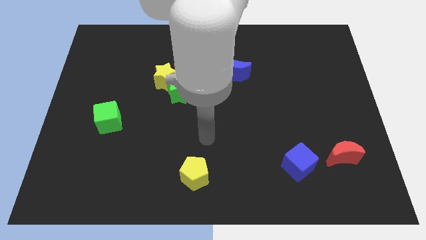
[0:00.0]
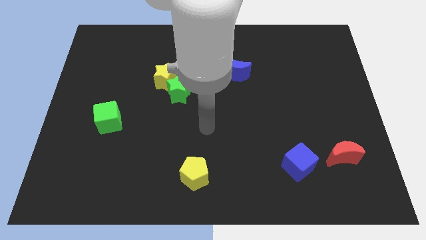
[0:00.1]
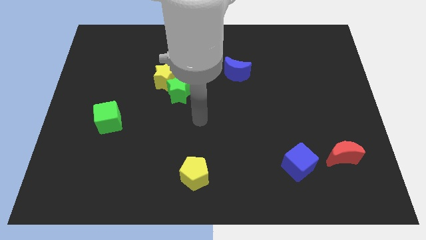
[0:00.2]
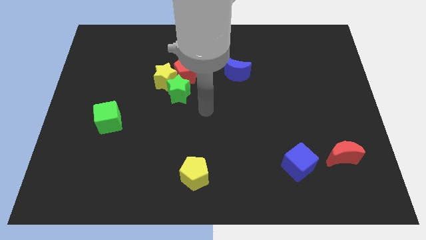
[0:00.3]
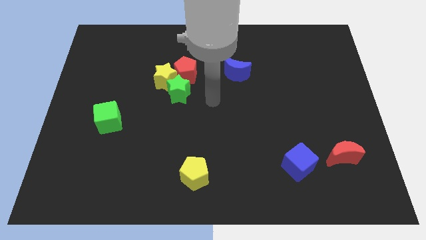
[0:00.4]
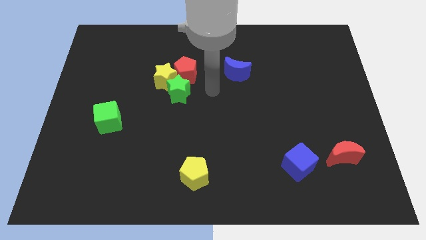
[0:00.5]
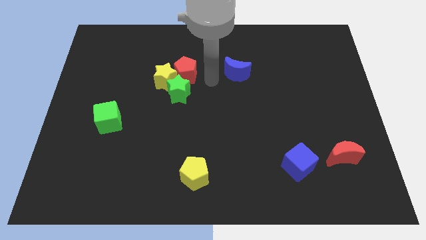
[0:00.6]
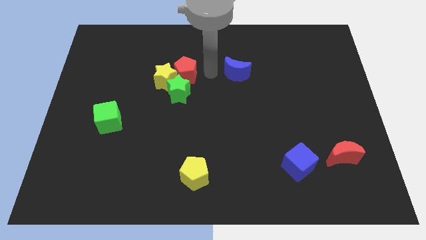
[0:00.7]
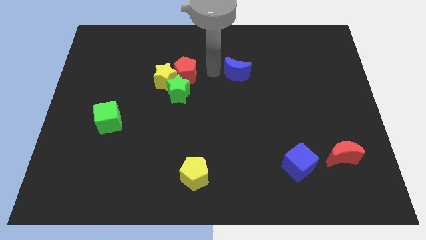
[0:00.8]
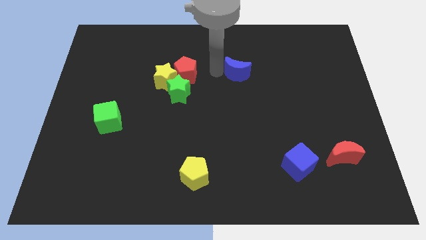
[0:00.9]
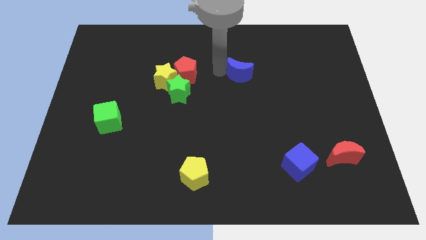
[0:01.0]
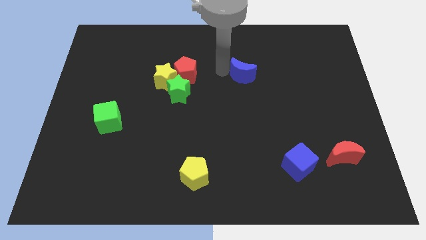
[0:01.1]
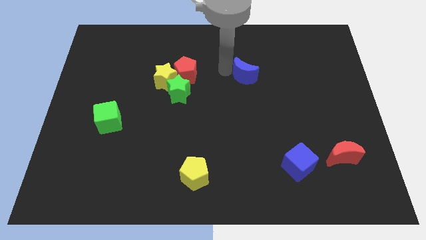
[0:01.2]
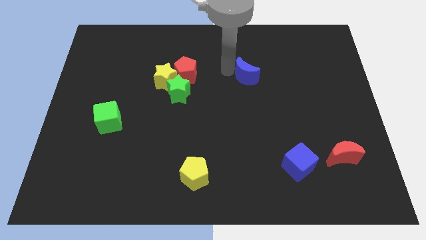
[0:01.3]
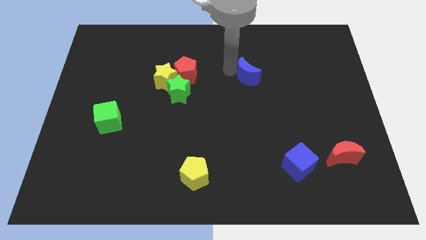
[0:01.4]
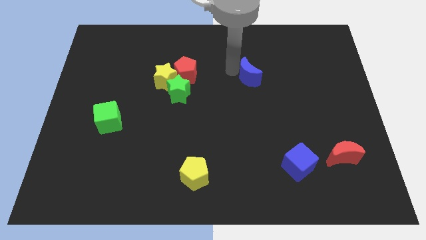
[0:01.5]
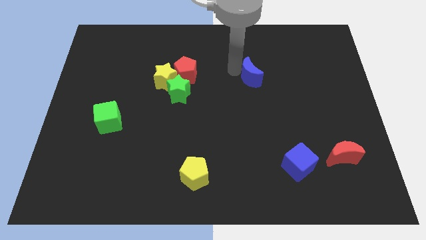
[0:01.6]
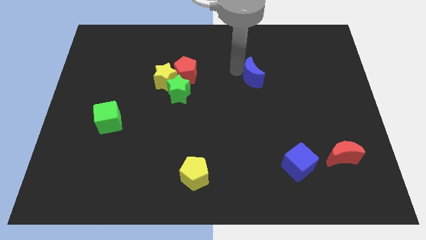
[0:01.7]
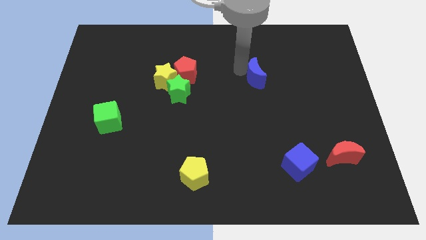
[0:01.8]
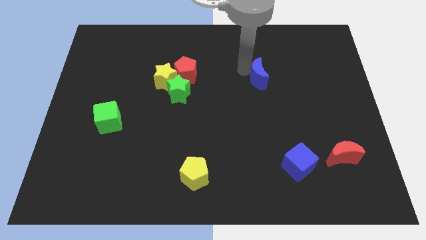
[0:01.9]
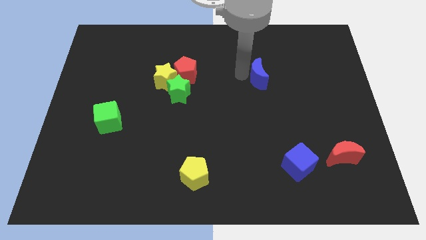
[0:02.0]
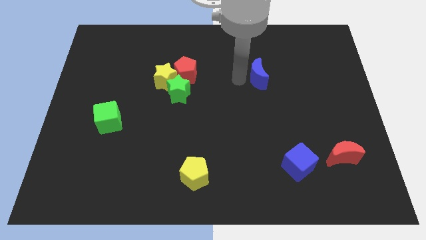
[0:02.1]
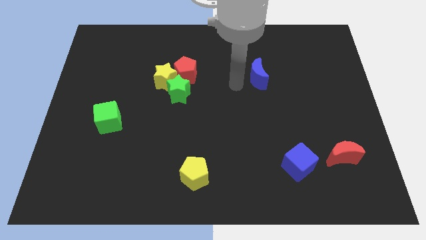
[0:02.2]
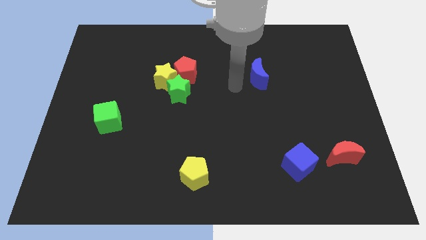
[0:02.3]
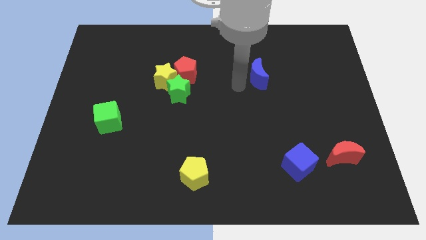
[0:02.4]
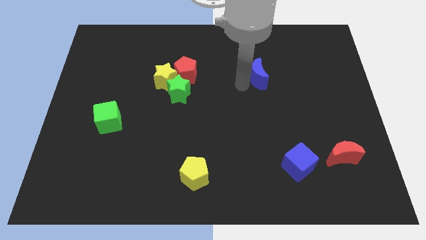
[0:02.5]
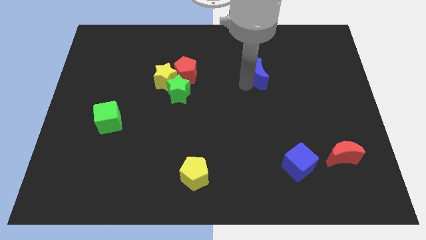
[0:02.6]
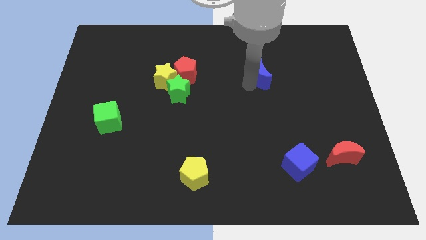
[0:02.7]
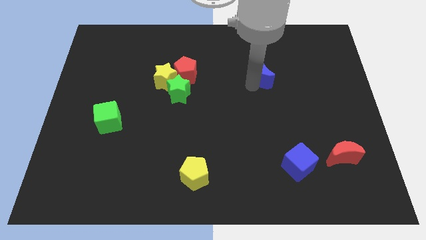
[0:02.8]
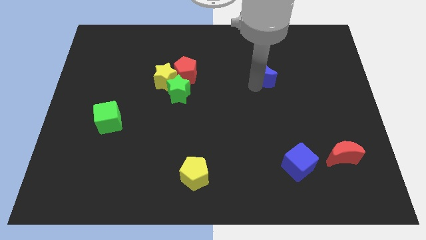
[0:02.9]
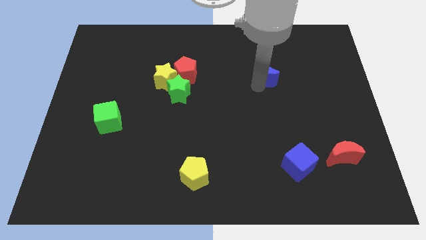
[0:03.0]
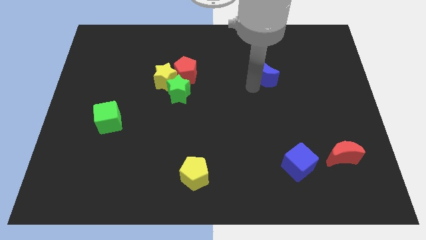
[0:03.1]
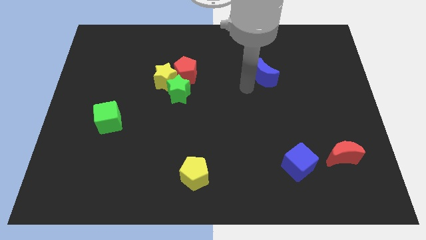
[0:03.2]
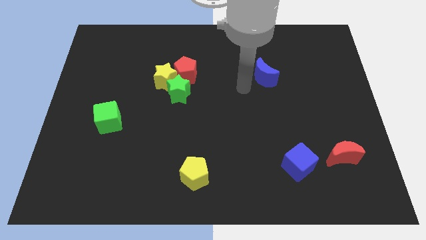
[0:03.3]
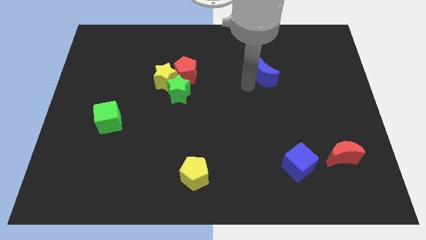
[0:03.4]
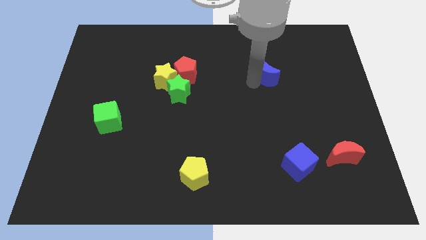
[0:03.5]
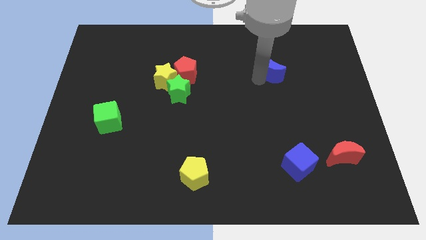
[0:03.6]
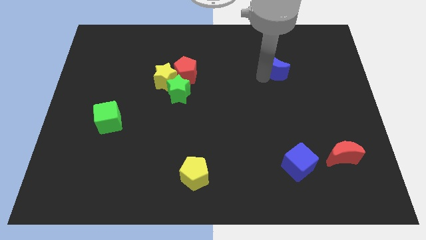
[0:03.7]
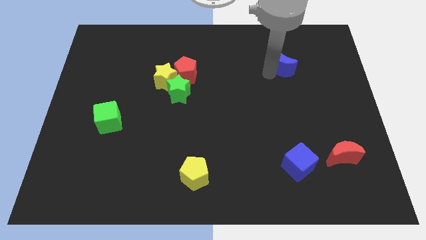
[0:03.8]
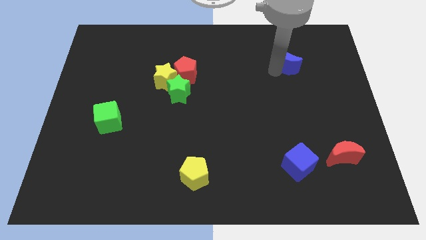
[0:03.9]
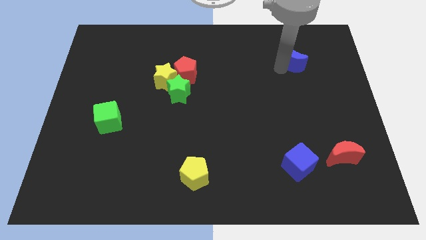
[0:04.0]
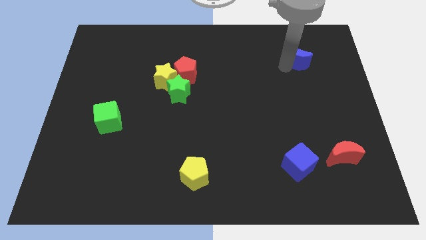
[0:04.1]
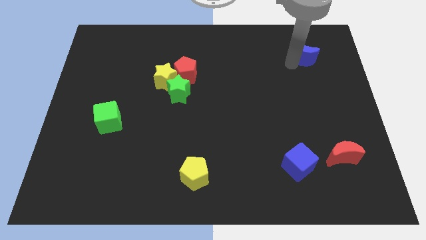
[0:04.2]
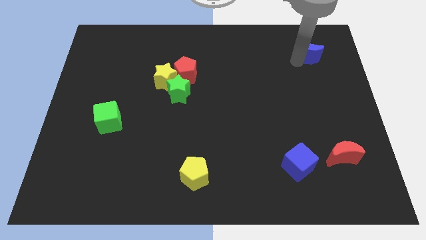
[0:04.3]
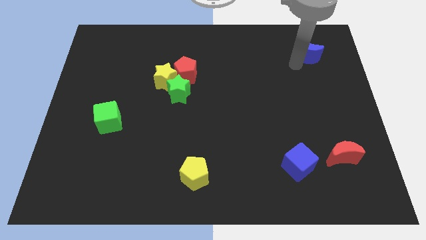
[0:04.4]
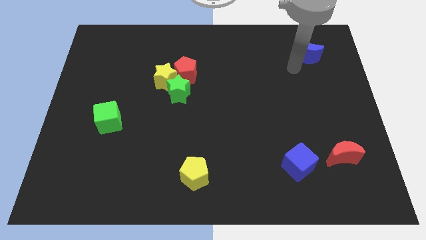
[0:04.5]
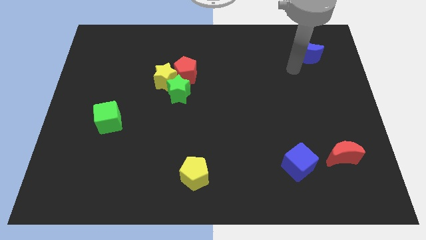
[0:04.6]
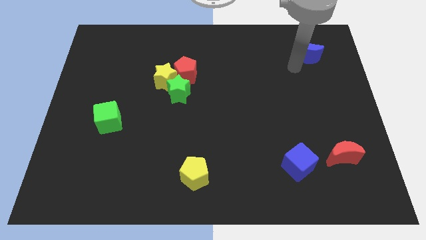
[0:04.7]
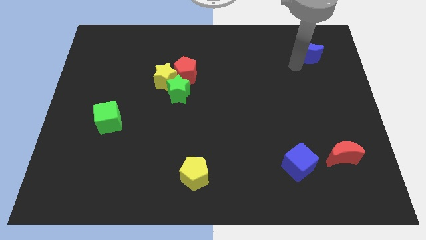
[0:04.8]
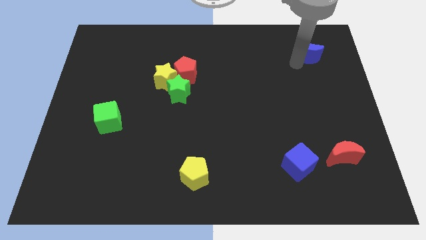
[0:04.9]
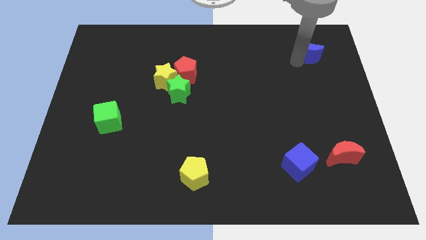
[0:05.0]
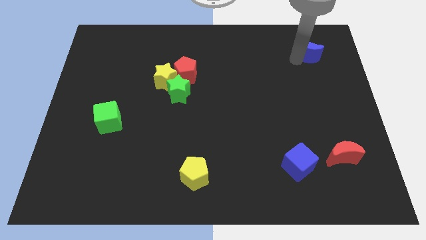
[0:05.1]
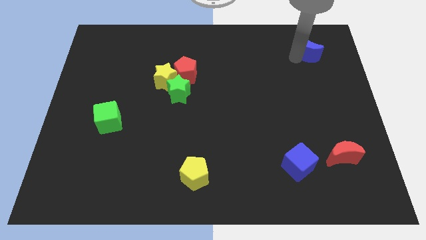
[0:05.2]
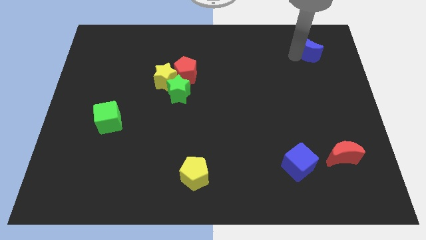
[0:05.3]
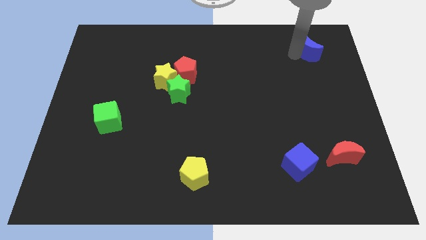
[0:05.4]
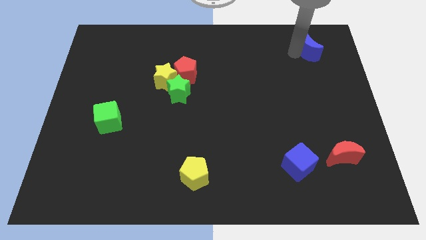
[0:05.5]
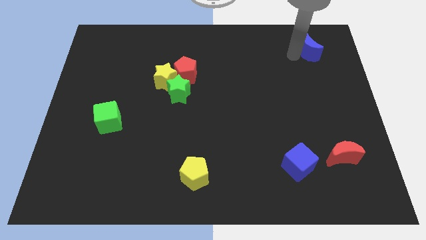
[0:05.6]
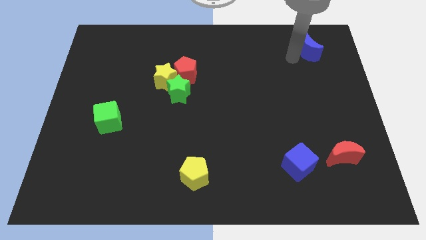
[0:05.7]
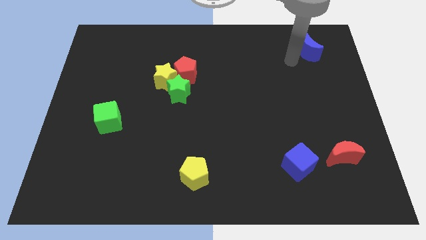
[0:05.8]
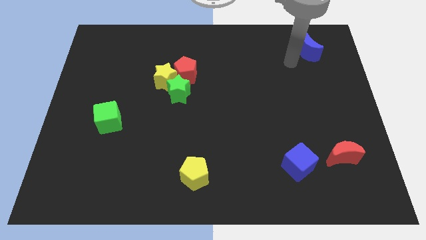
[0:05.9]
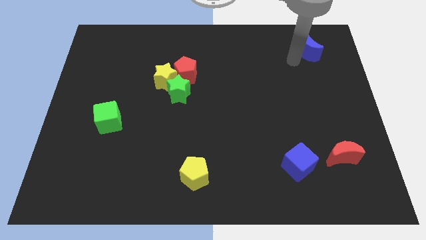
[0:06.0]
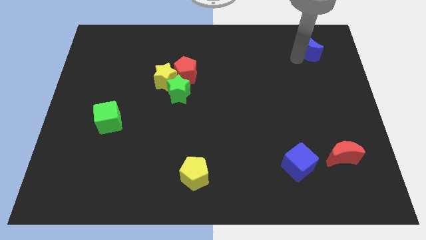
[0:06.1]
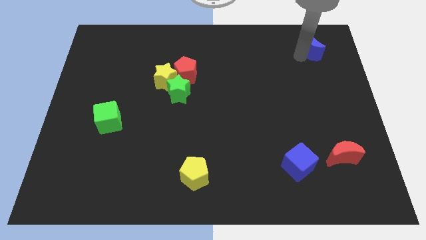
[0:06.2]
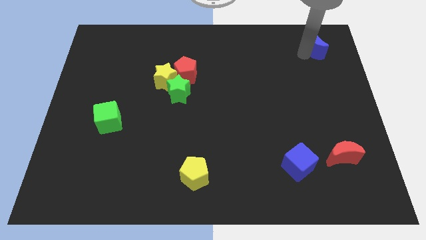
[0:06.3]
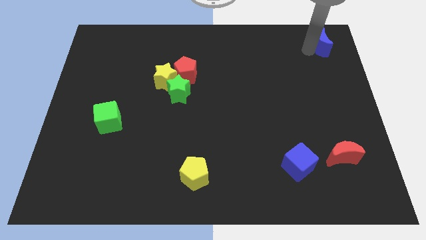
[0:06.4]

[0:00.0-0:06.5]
slide the blue moon to the upper right corner
